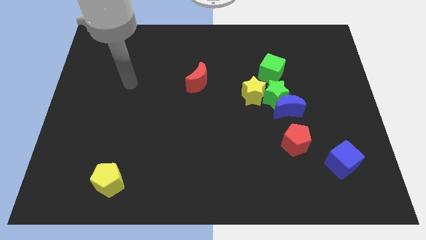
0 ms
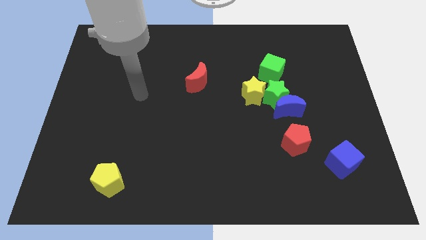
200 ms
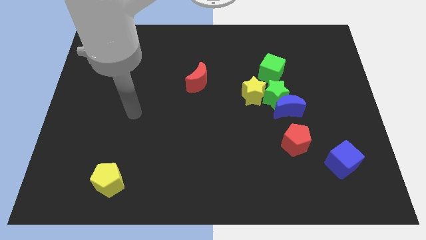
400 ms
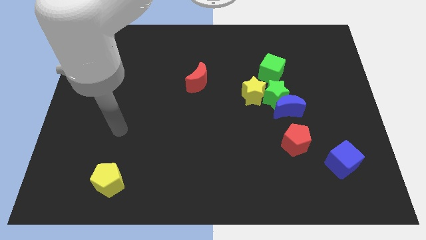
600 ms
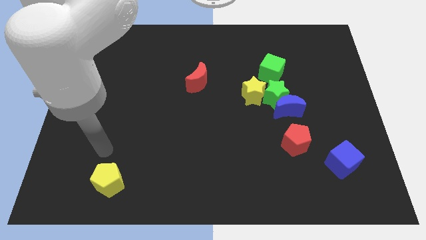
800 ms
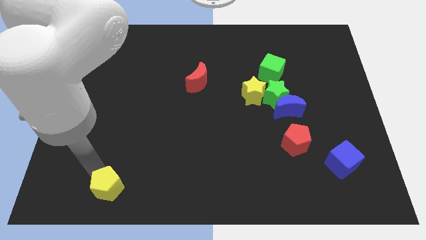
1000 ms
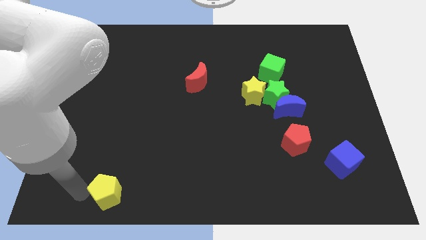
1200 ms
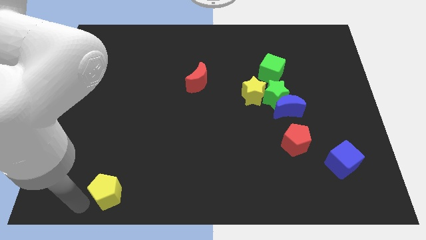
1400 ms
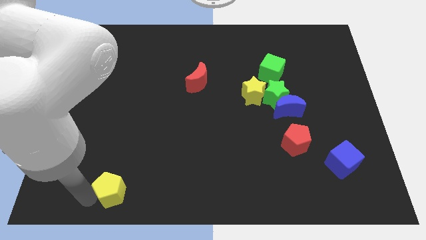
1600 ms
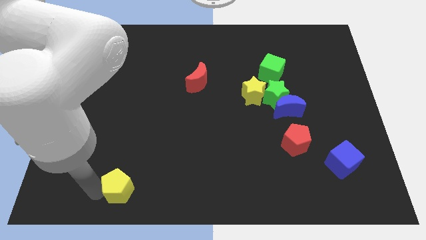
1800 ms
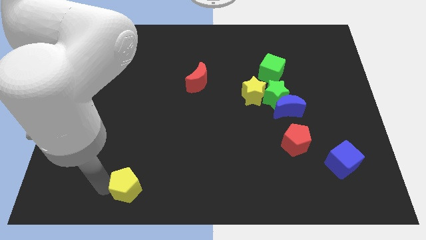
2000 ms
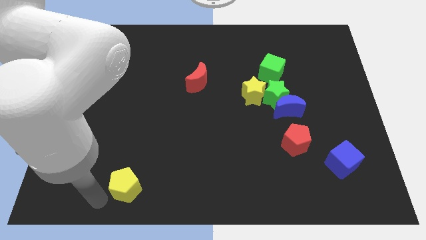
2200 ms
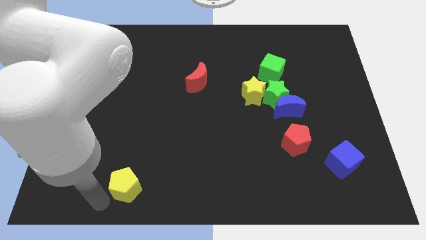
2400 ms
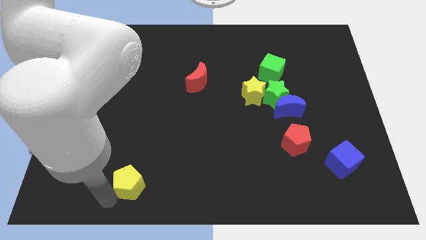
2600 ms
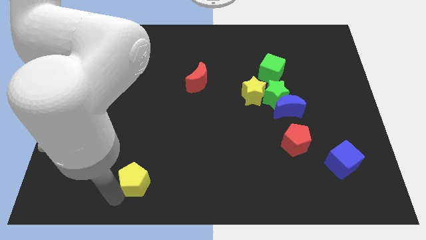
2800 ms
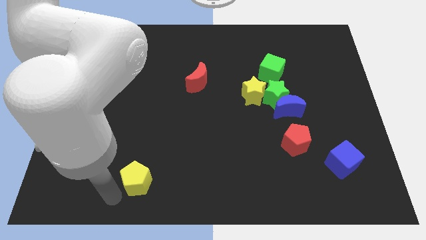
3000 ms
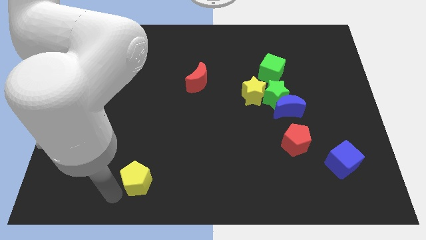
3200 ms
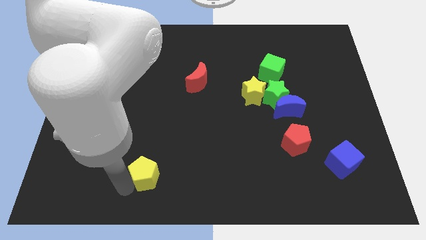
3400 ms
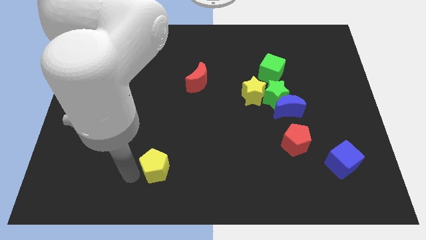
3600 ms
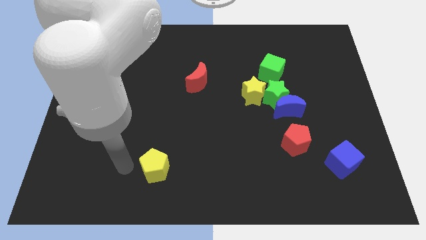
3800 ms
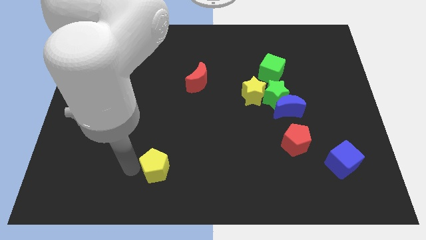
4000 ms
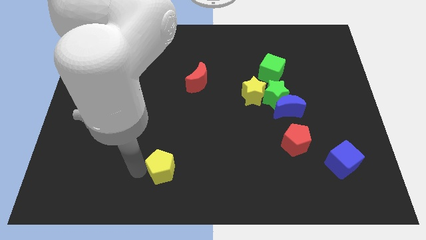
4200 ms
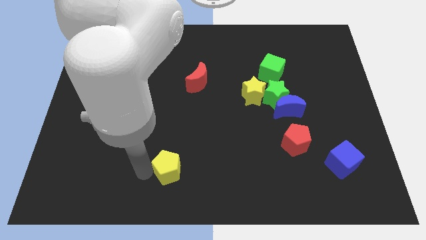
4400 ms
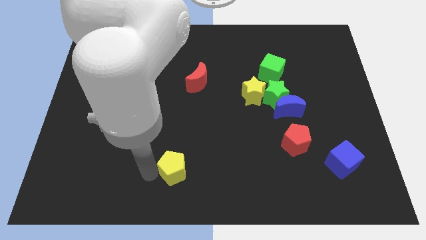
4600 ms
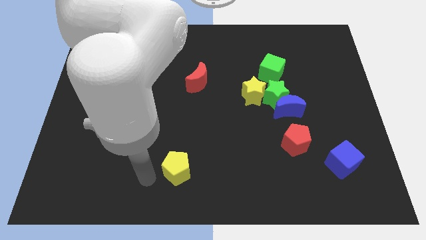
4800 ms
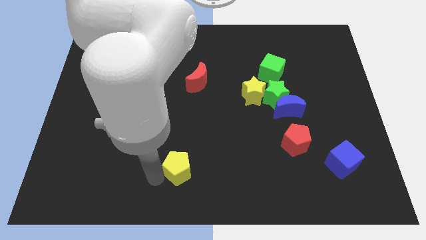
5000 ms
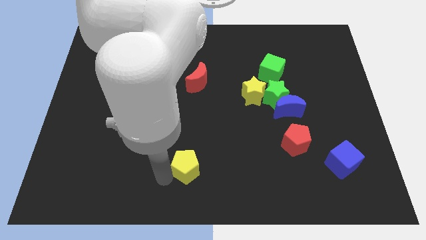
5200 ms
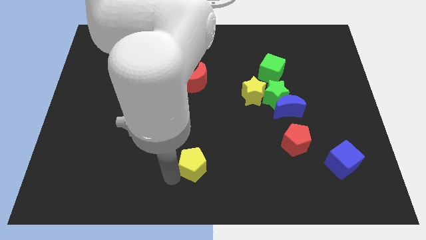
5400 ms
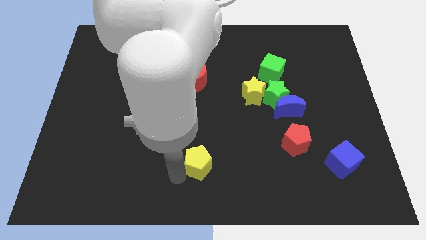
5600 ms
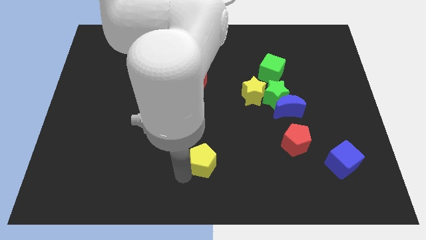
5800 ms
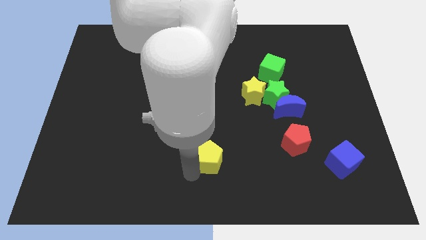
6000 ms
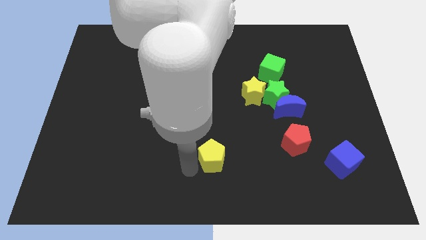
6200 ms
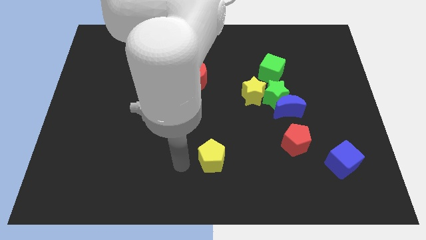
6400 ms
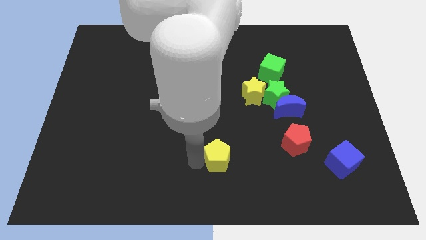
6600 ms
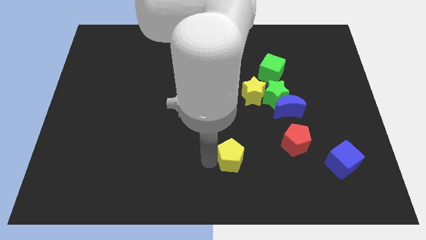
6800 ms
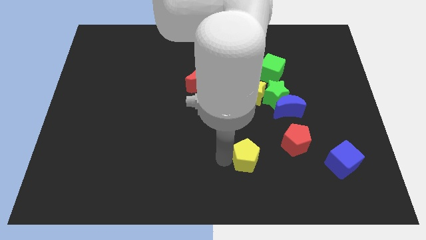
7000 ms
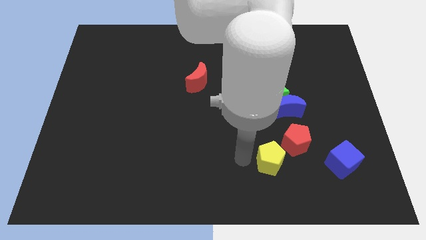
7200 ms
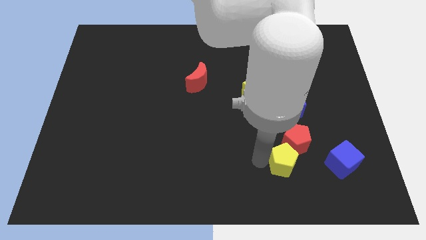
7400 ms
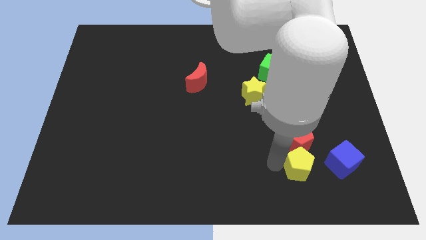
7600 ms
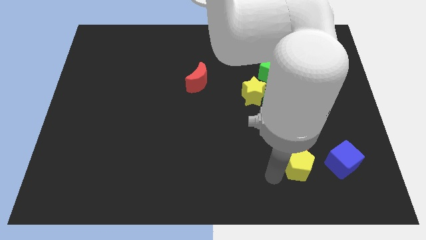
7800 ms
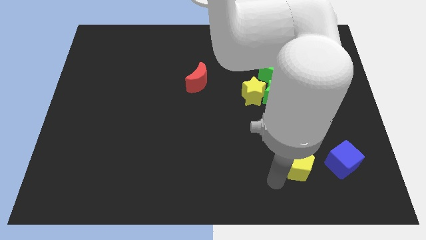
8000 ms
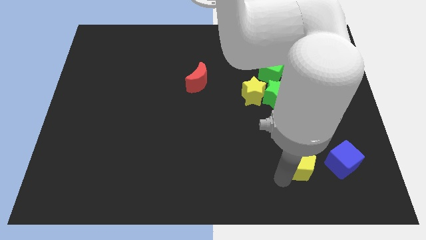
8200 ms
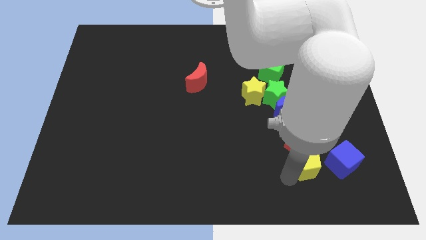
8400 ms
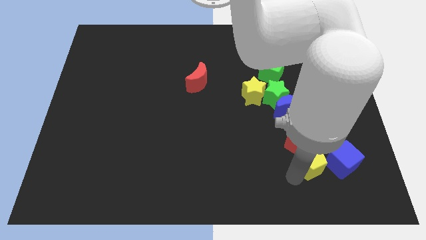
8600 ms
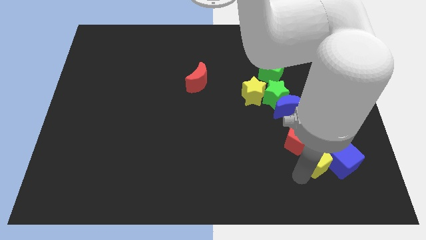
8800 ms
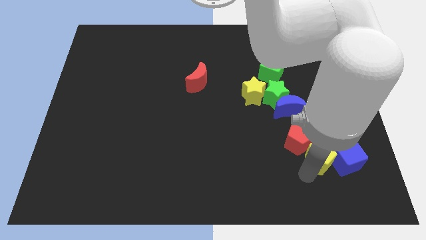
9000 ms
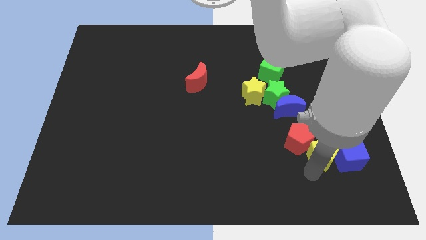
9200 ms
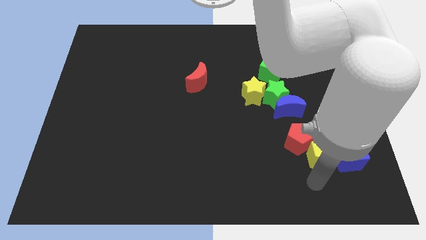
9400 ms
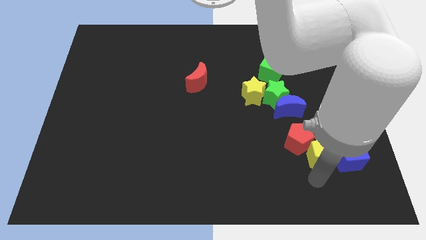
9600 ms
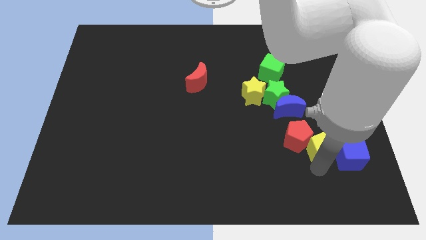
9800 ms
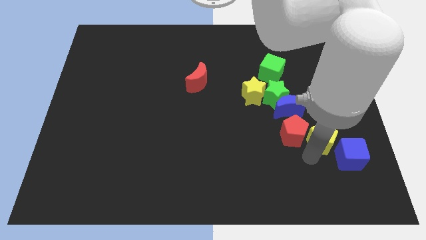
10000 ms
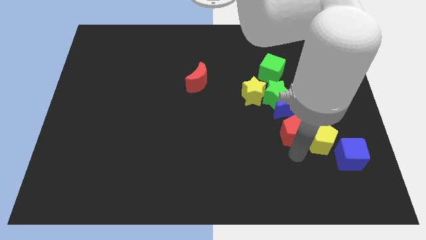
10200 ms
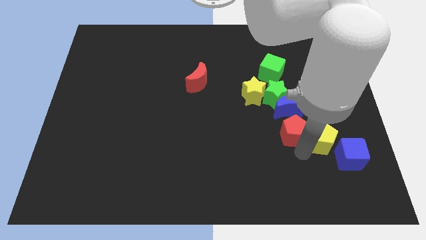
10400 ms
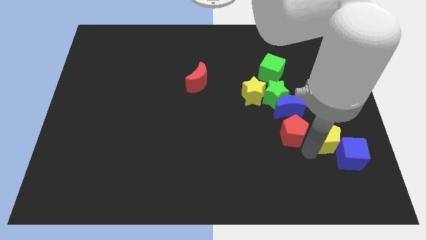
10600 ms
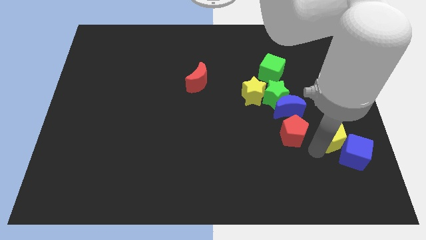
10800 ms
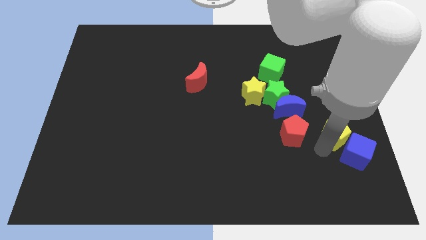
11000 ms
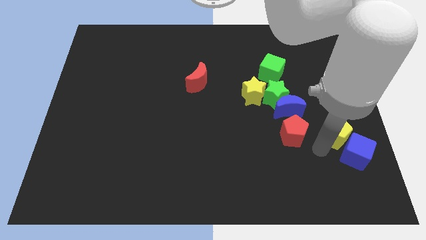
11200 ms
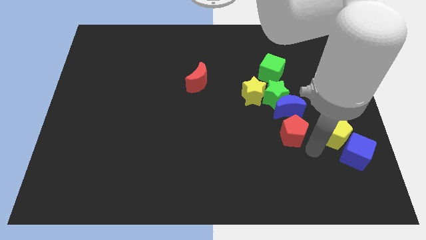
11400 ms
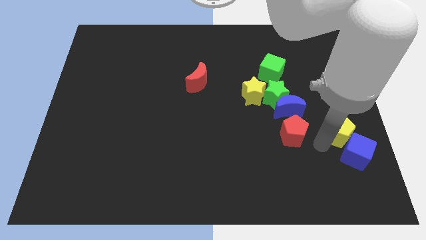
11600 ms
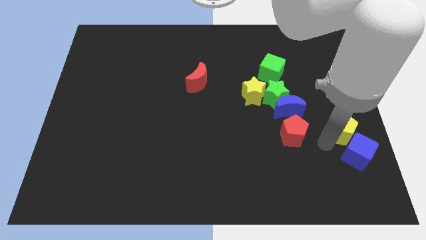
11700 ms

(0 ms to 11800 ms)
move the yellow pentagon to the right side of the board

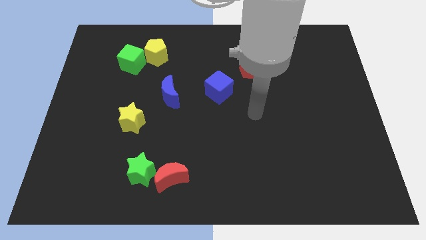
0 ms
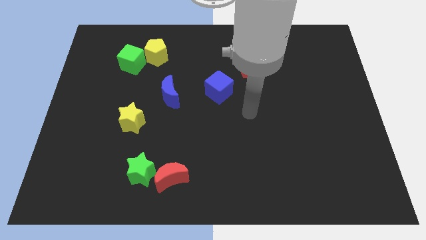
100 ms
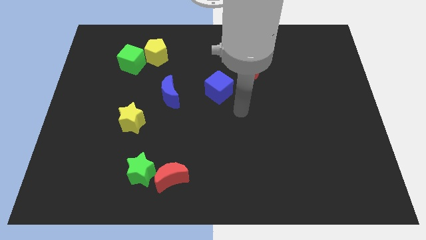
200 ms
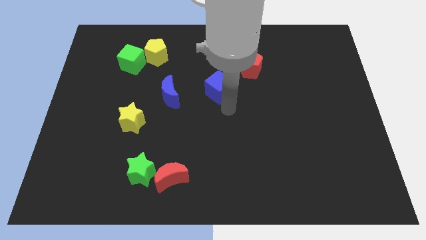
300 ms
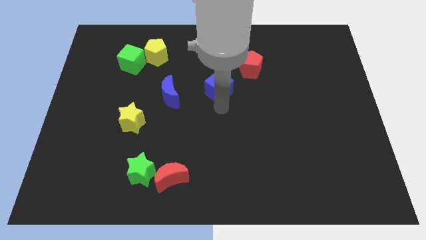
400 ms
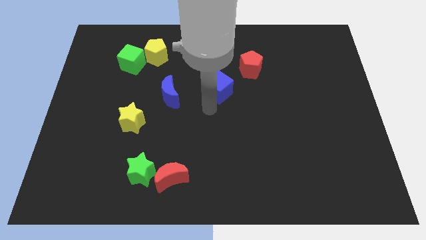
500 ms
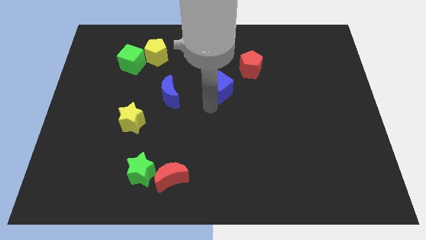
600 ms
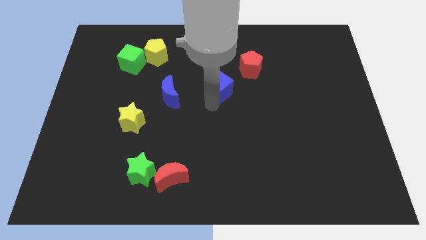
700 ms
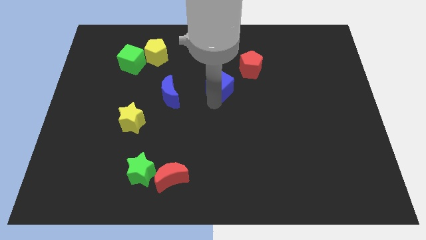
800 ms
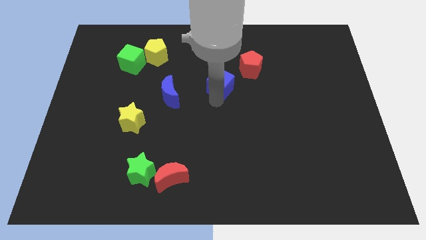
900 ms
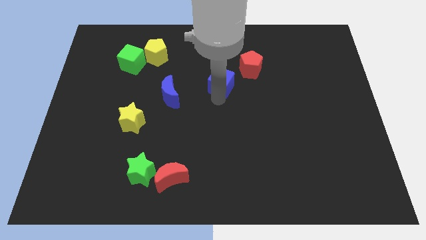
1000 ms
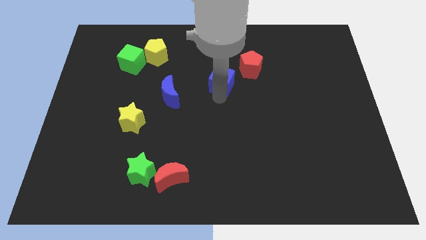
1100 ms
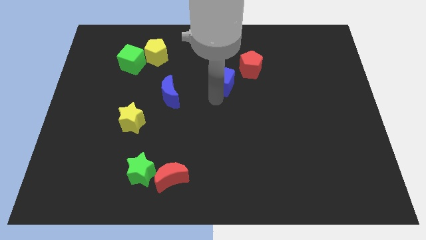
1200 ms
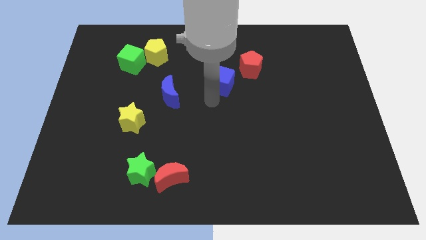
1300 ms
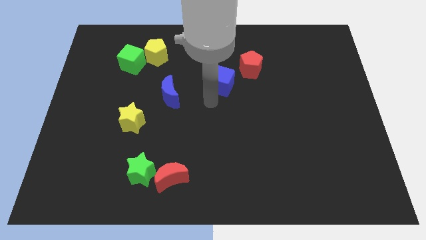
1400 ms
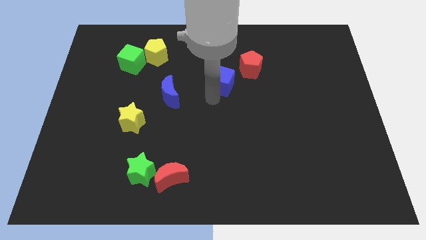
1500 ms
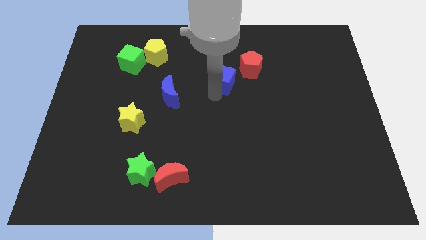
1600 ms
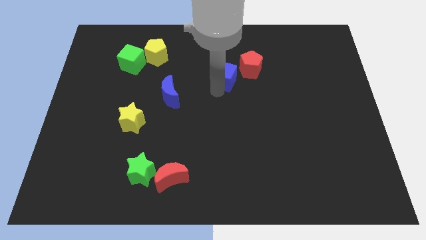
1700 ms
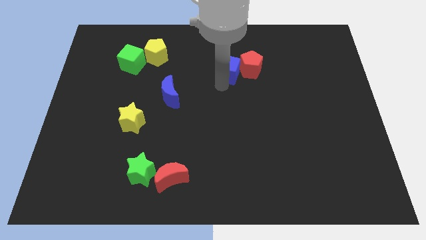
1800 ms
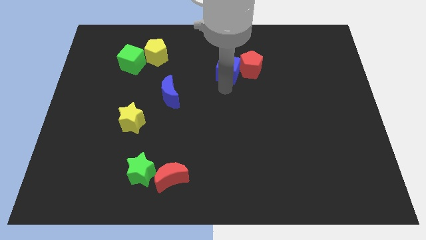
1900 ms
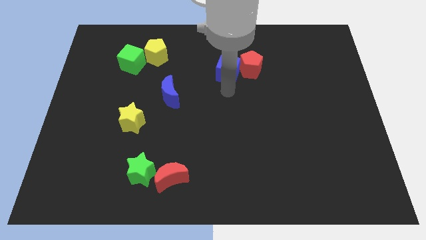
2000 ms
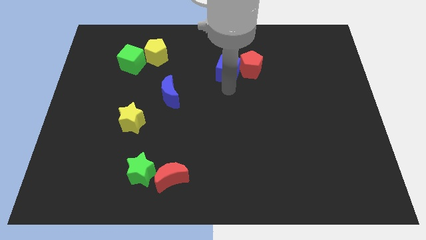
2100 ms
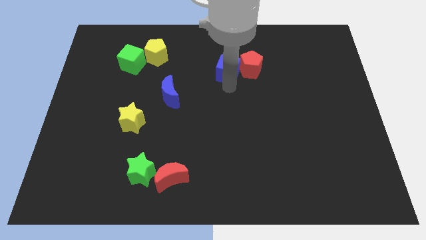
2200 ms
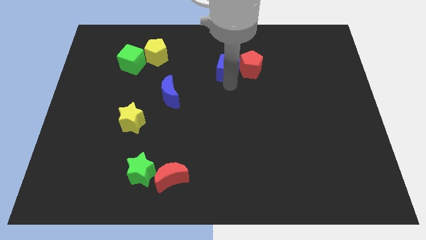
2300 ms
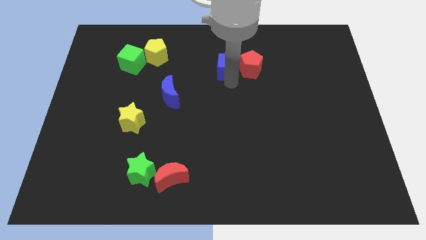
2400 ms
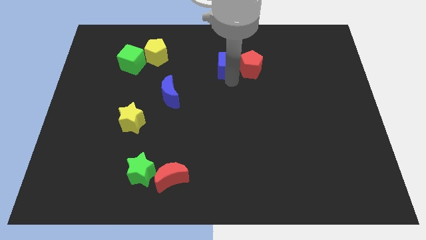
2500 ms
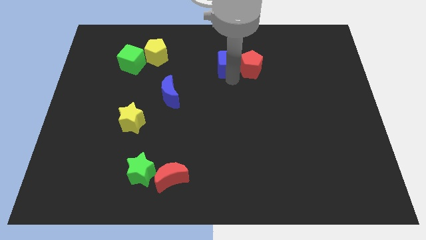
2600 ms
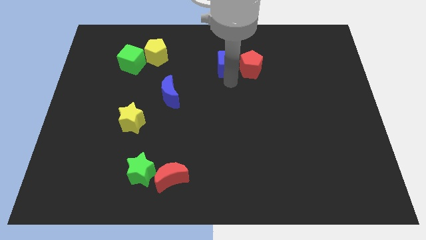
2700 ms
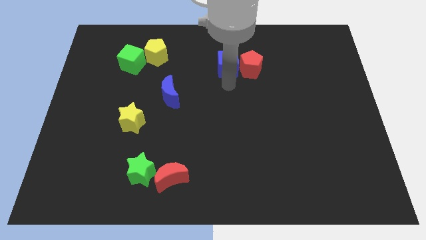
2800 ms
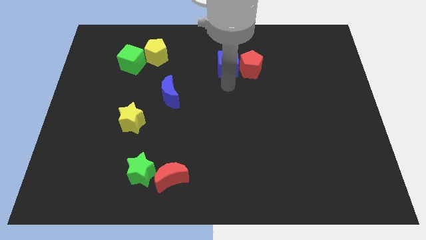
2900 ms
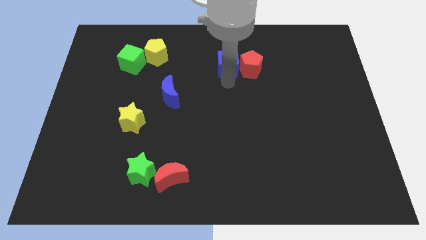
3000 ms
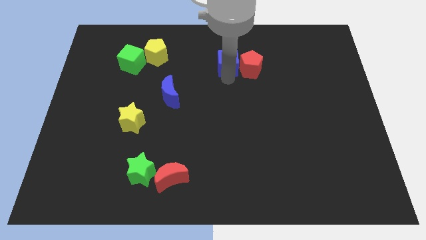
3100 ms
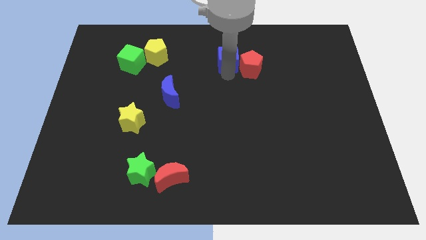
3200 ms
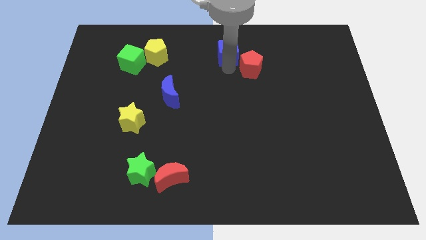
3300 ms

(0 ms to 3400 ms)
put the blue cube to the top side
